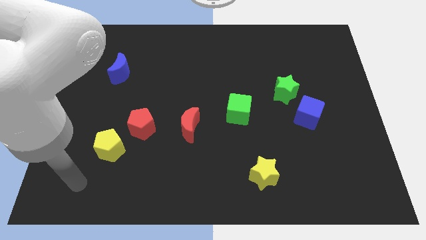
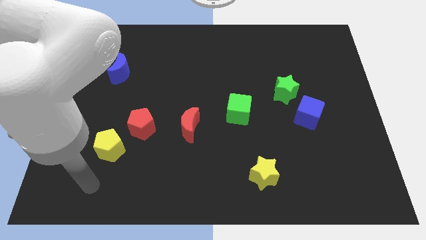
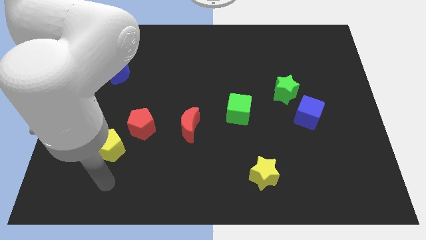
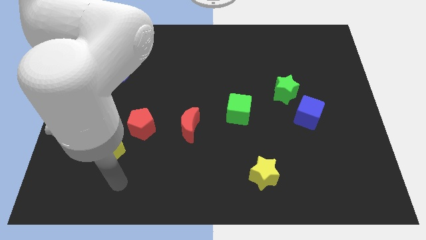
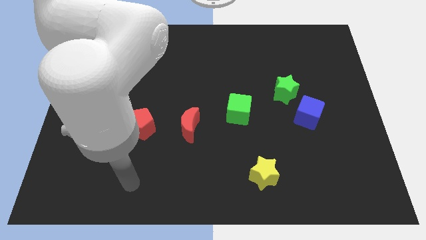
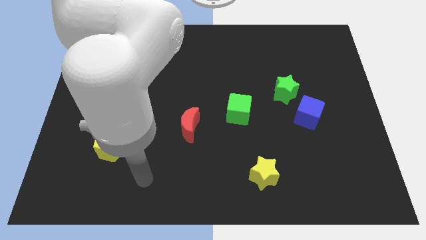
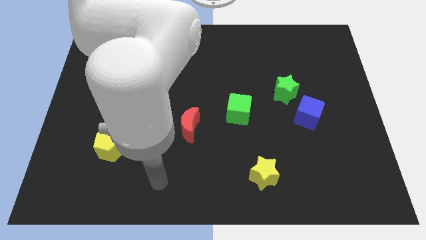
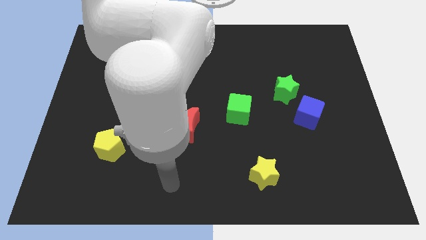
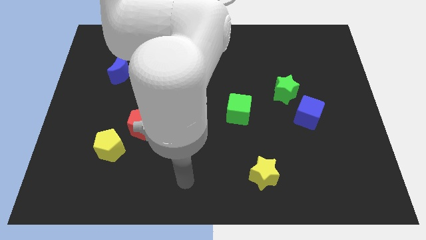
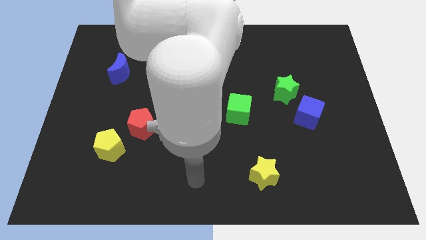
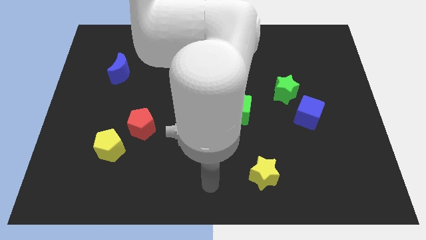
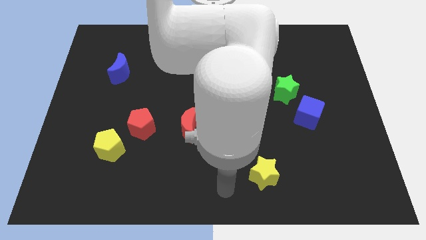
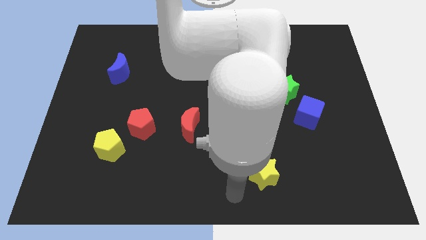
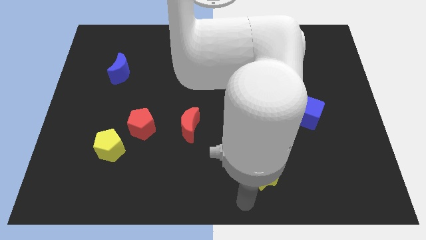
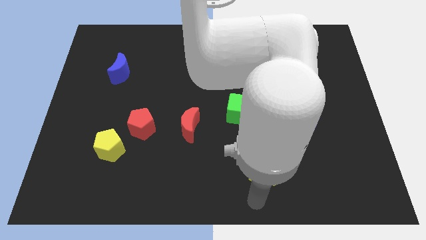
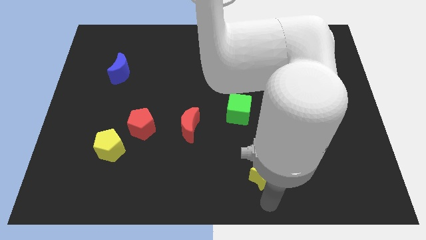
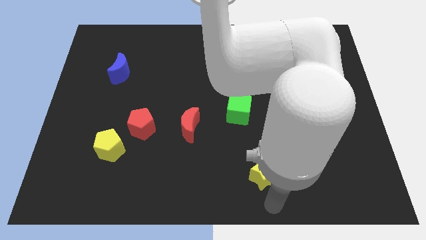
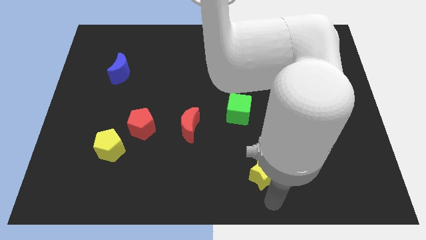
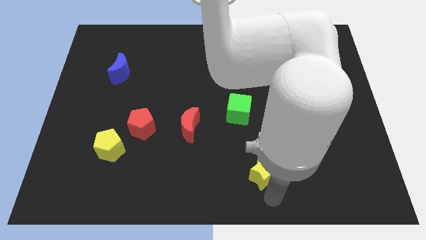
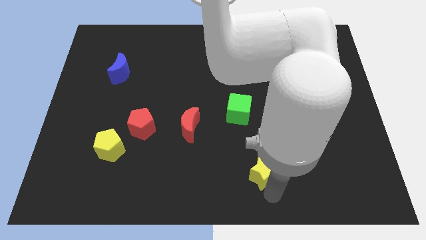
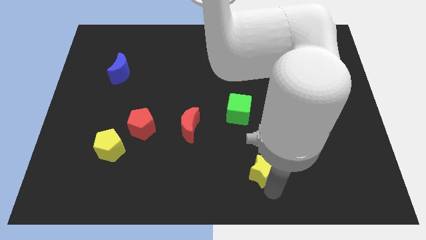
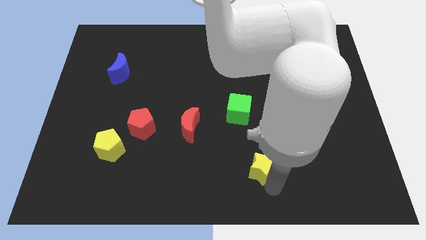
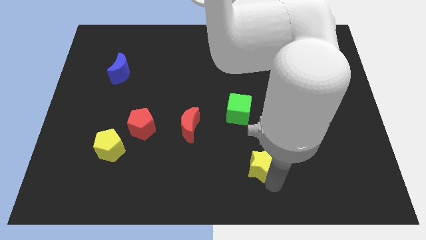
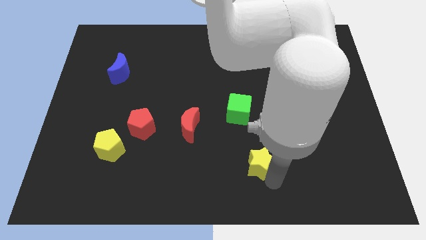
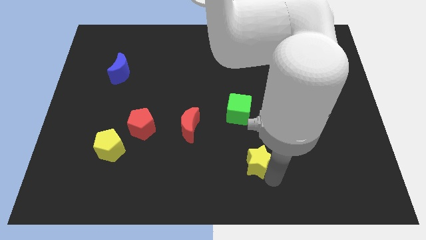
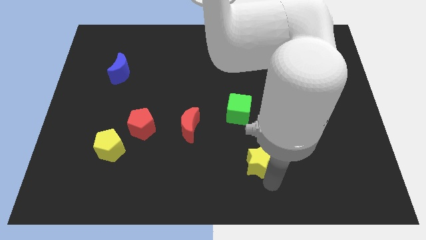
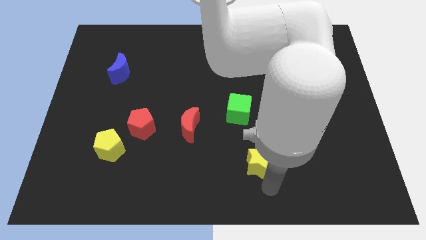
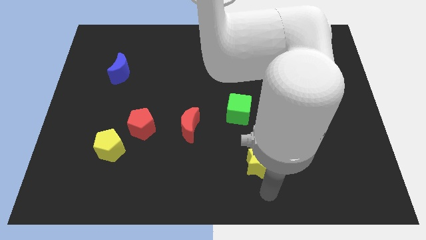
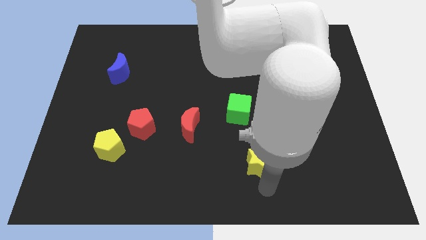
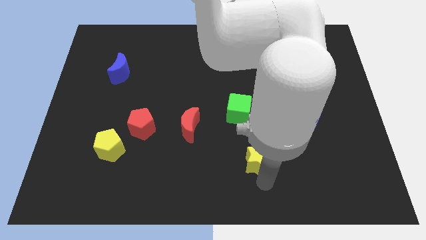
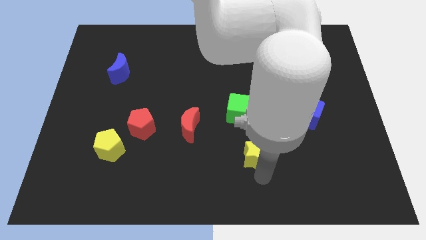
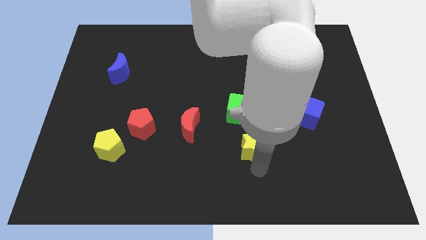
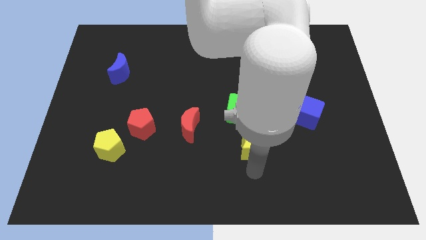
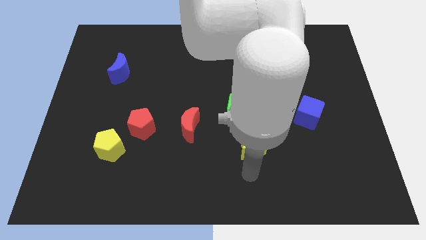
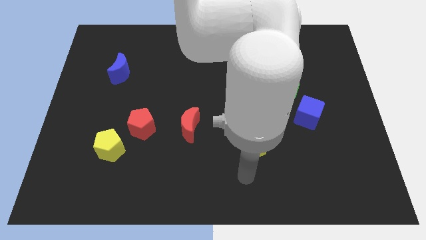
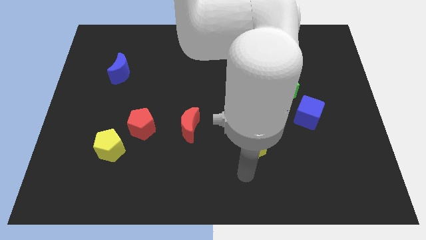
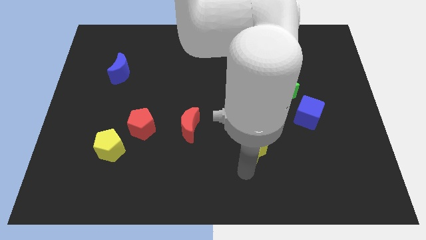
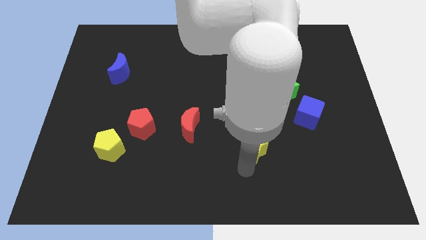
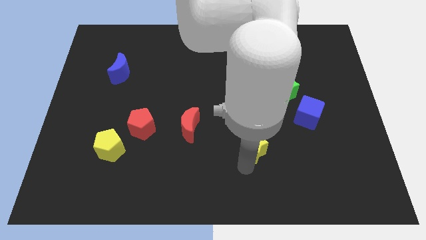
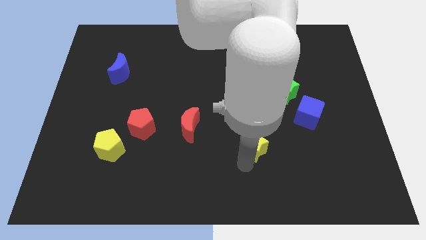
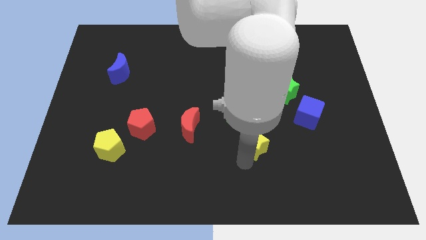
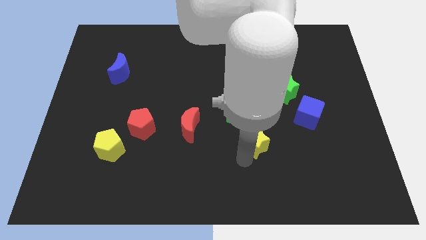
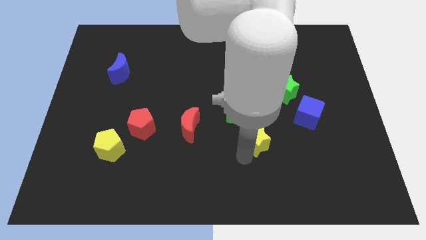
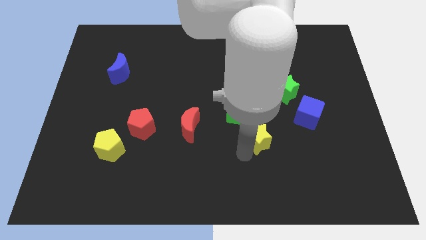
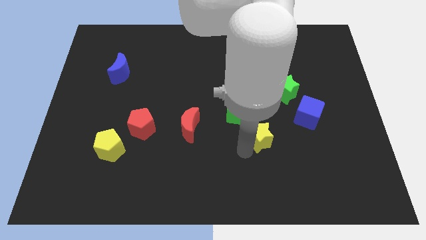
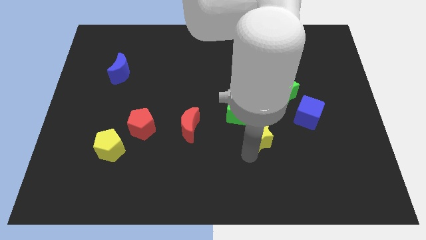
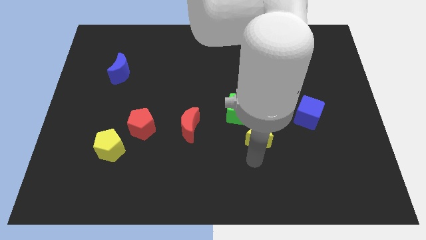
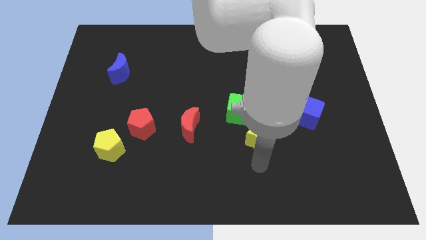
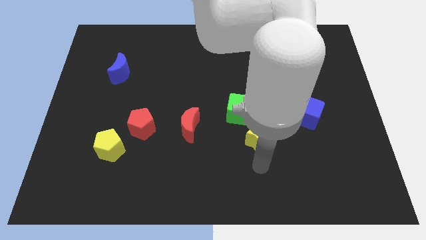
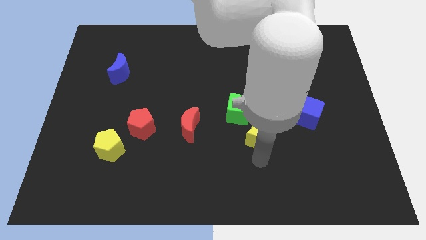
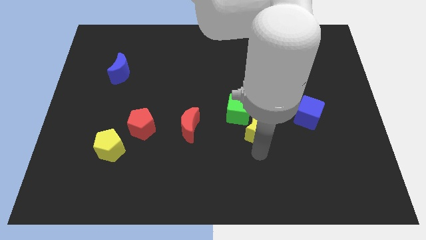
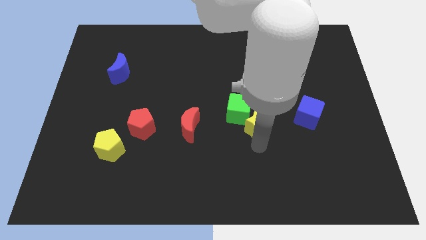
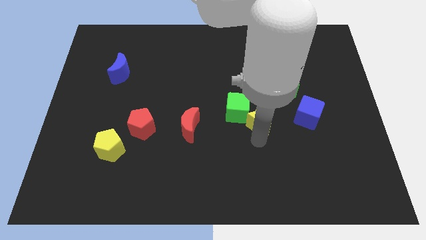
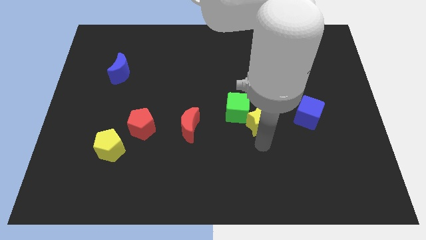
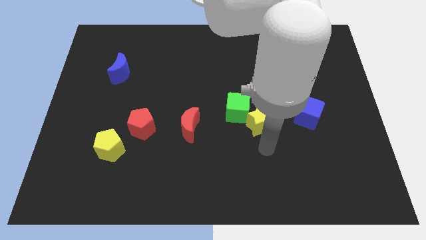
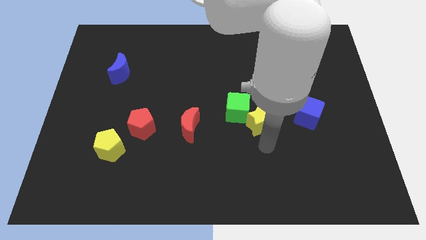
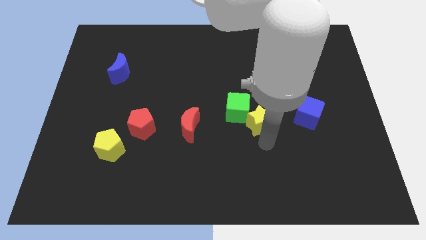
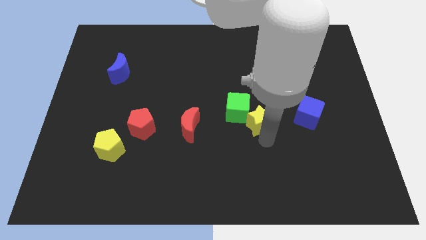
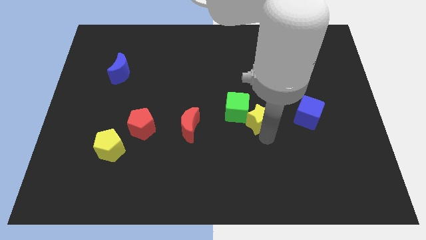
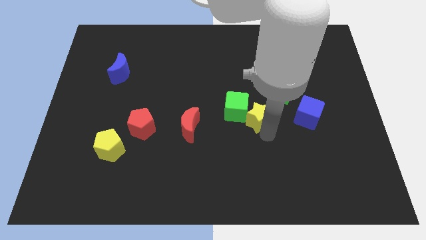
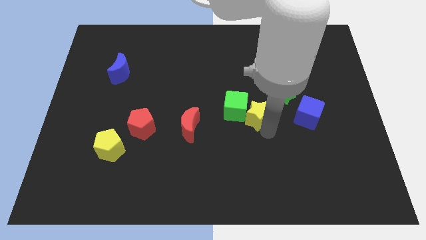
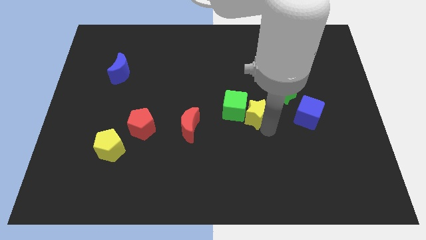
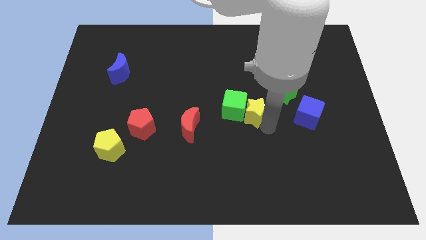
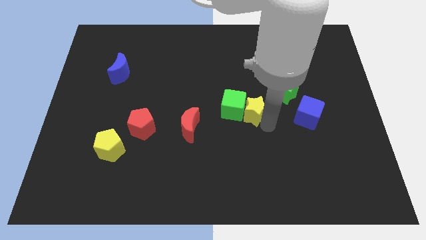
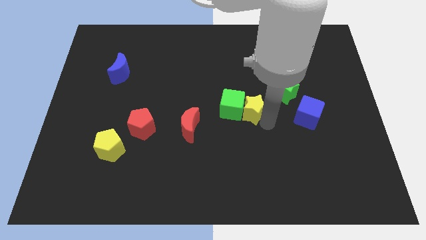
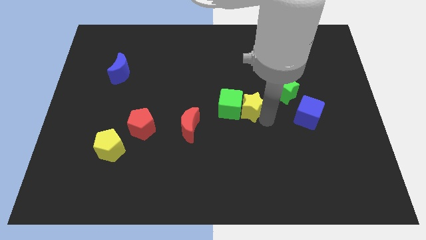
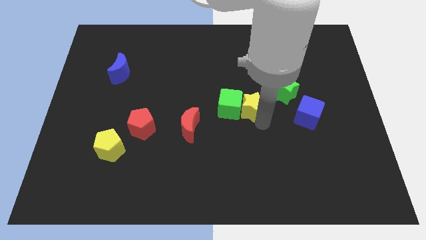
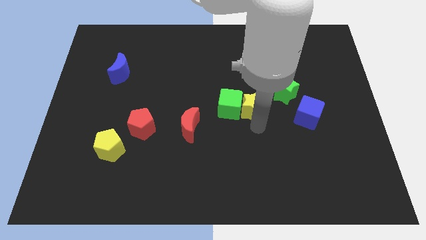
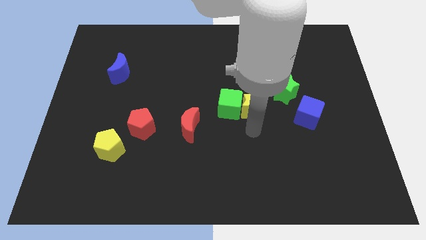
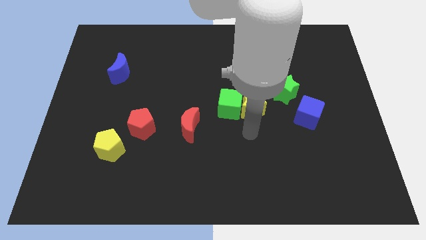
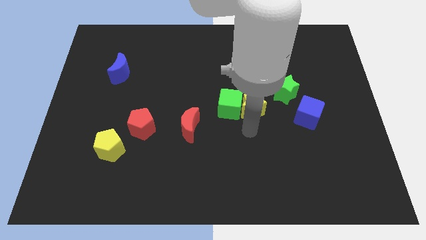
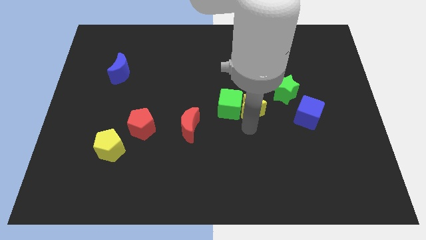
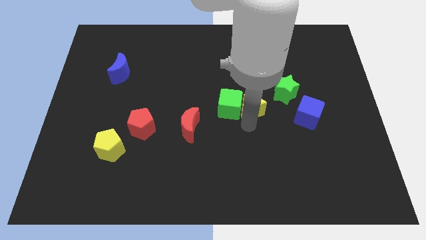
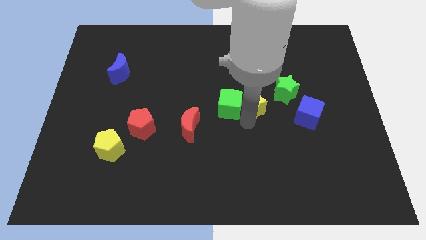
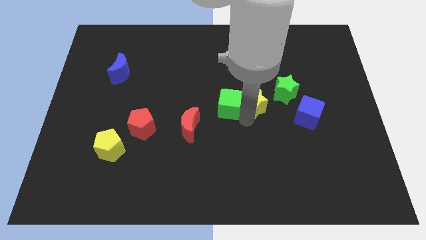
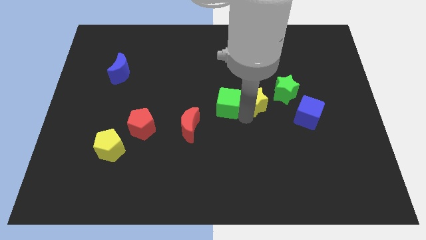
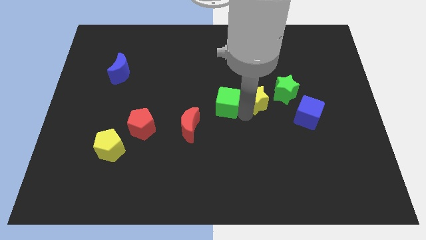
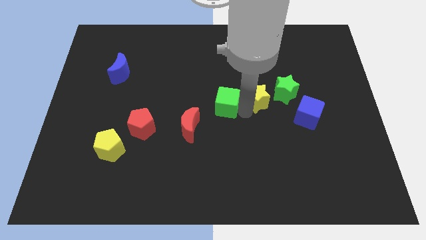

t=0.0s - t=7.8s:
push the yellow star up

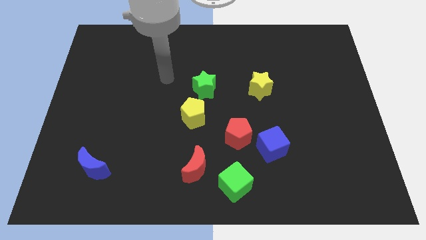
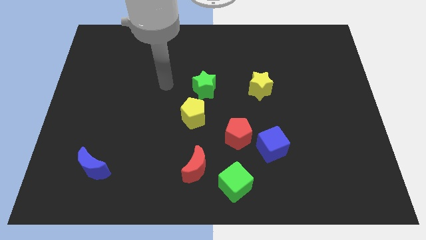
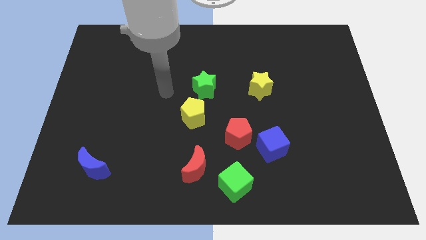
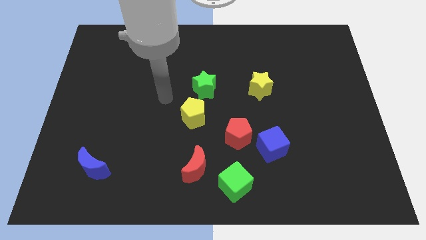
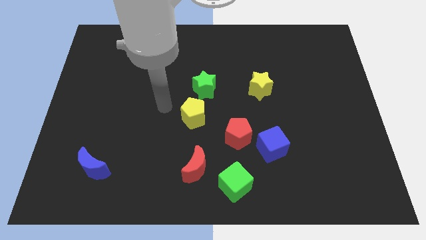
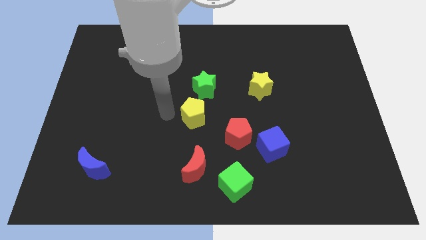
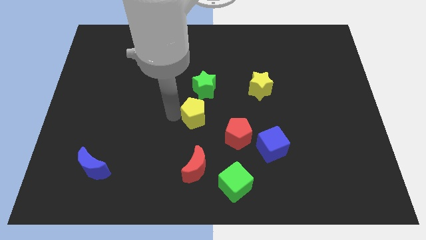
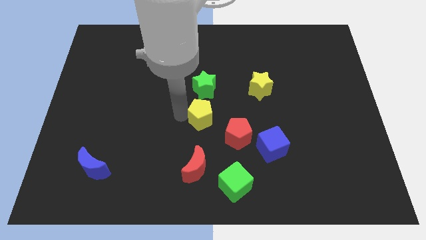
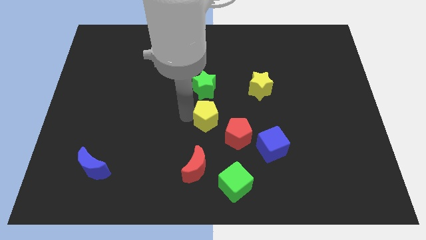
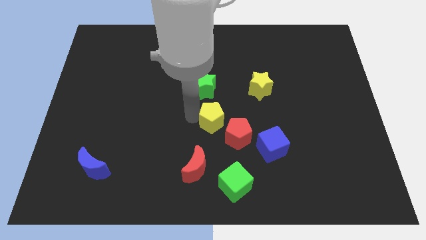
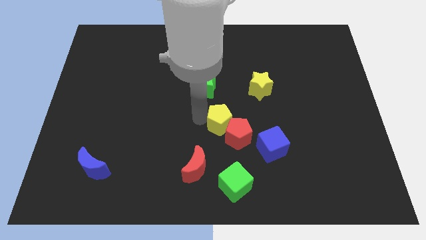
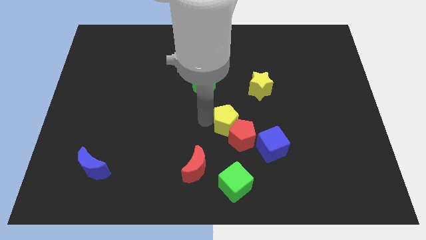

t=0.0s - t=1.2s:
move the yellow pentagon right slightly
